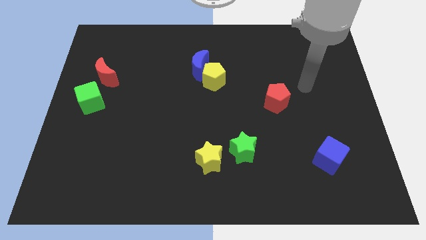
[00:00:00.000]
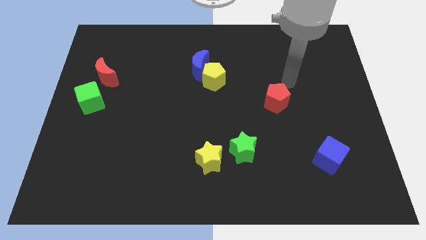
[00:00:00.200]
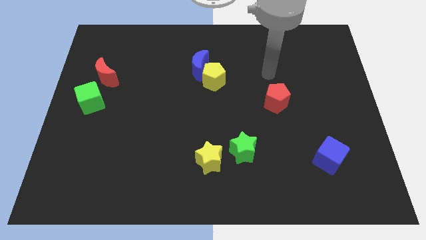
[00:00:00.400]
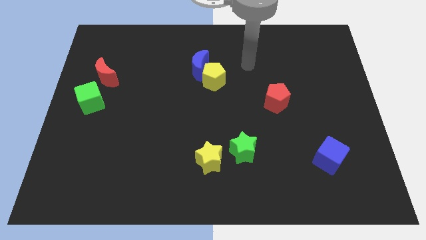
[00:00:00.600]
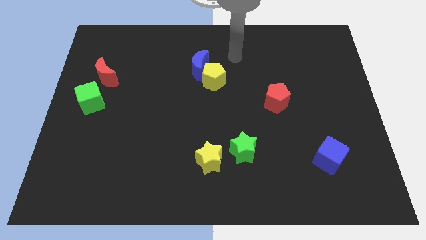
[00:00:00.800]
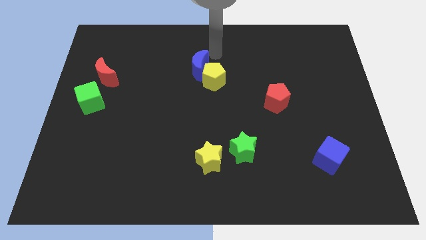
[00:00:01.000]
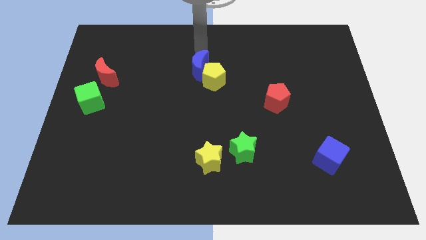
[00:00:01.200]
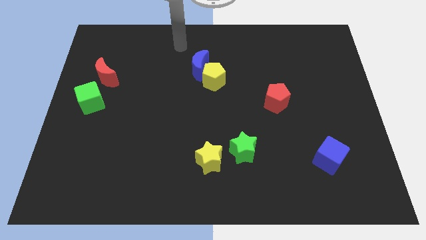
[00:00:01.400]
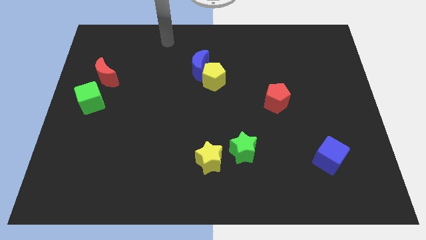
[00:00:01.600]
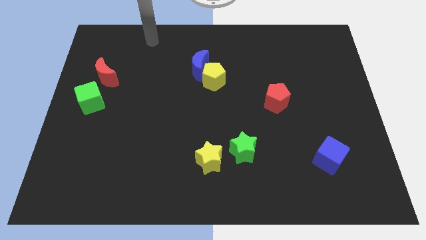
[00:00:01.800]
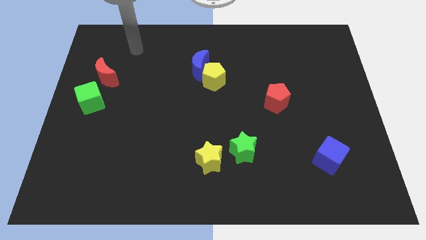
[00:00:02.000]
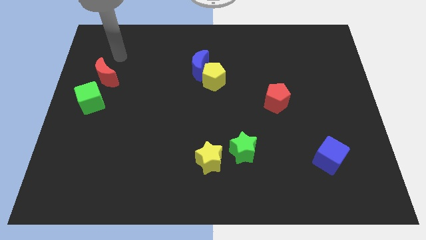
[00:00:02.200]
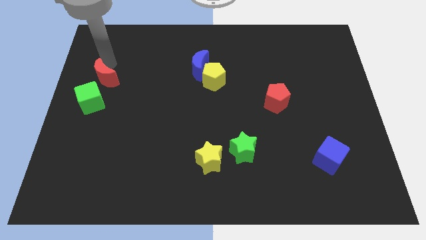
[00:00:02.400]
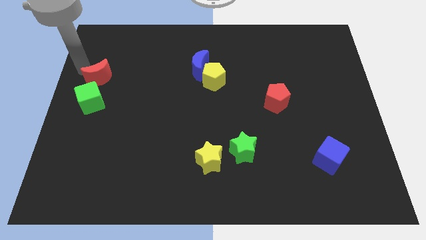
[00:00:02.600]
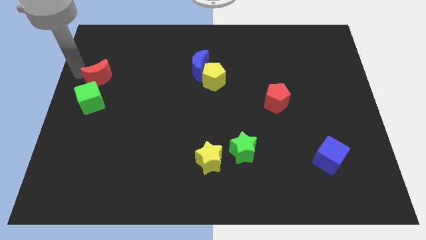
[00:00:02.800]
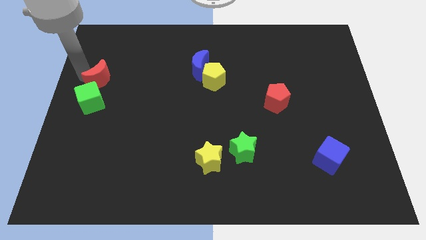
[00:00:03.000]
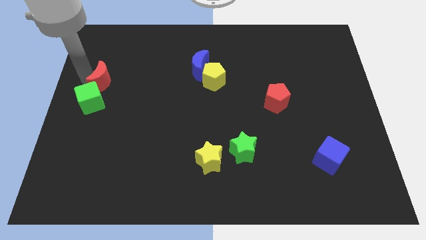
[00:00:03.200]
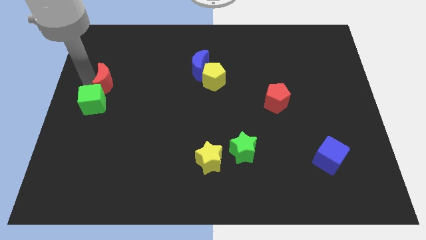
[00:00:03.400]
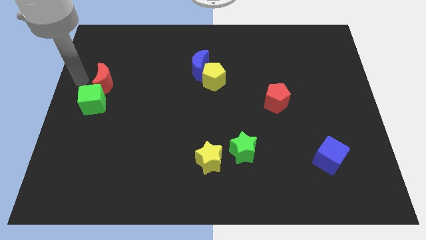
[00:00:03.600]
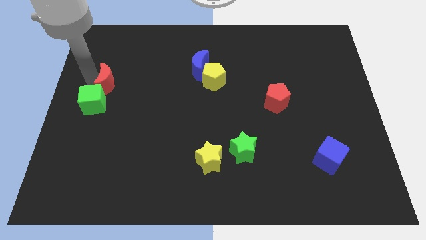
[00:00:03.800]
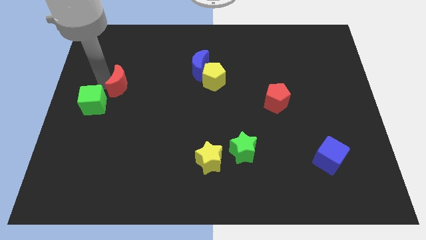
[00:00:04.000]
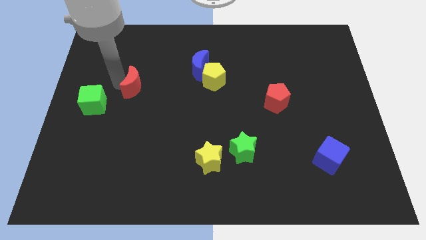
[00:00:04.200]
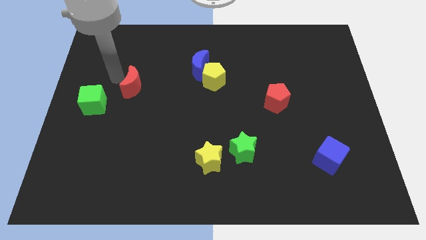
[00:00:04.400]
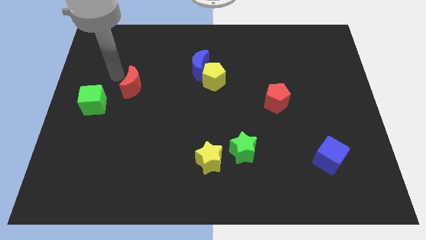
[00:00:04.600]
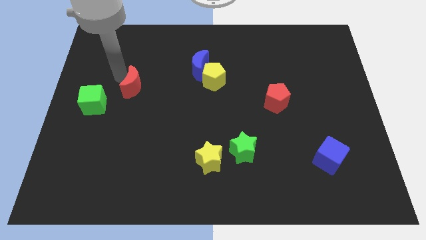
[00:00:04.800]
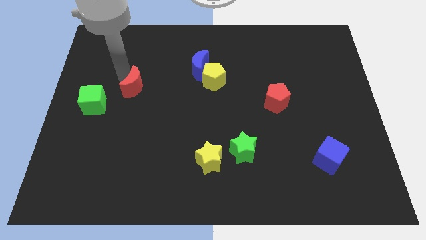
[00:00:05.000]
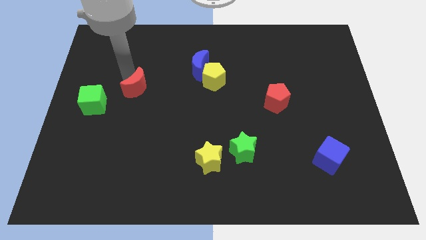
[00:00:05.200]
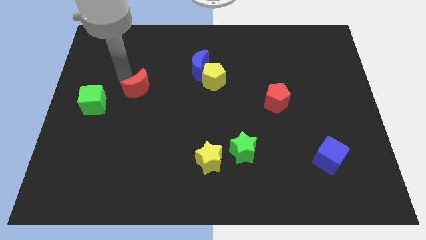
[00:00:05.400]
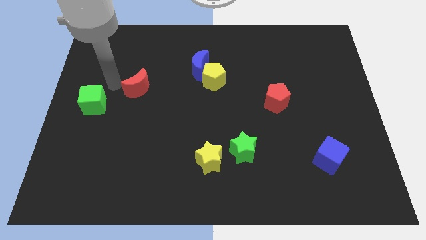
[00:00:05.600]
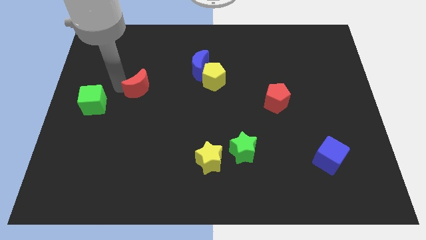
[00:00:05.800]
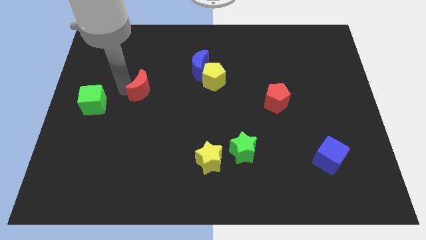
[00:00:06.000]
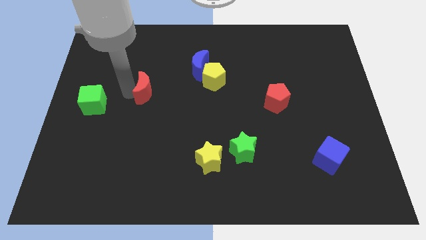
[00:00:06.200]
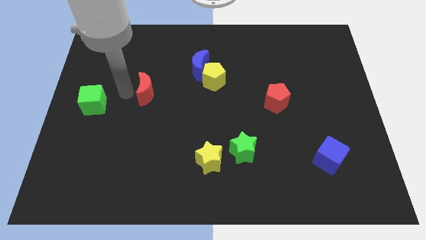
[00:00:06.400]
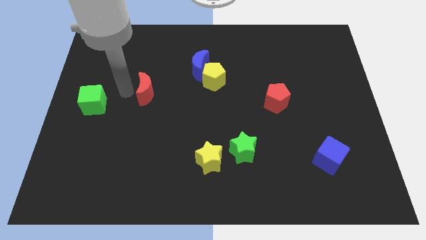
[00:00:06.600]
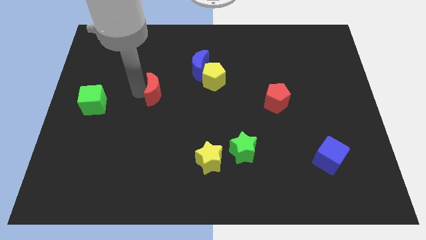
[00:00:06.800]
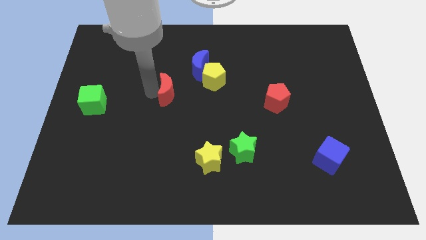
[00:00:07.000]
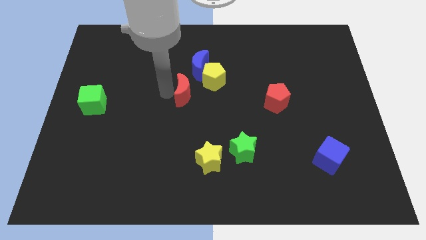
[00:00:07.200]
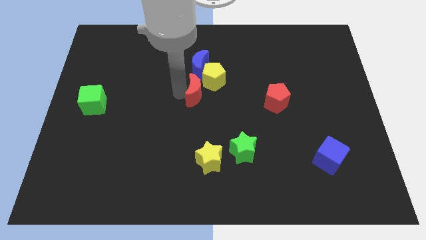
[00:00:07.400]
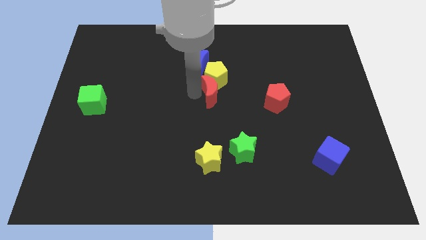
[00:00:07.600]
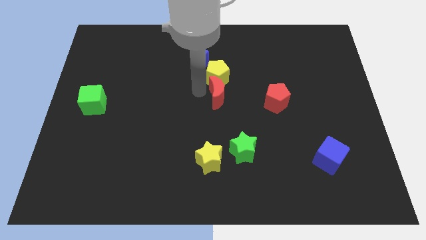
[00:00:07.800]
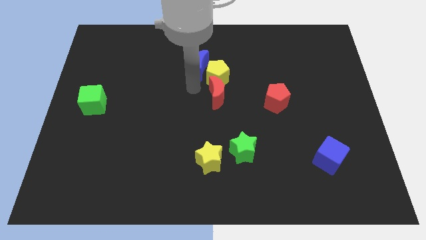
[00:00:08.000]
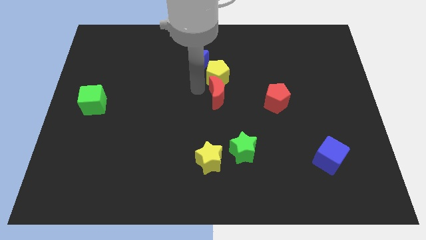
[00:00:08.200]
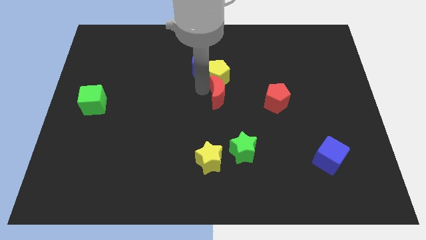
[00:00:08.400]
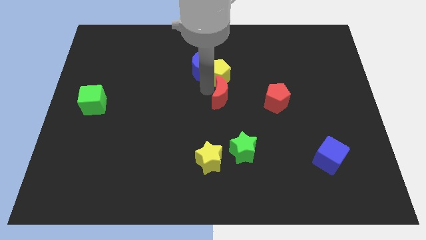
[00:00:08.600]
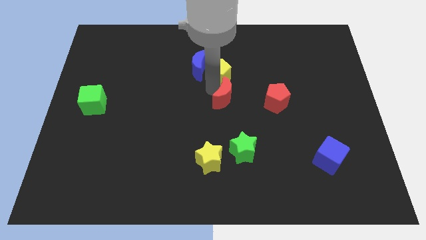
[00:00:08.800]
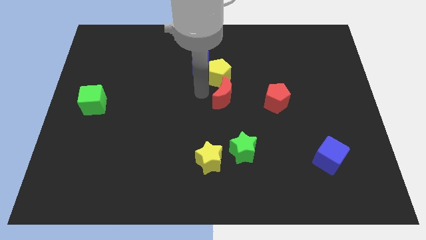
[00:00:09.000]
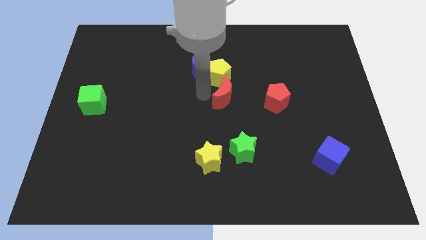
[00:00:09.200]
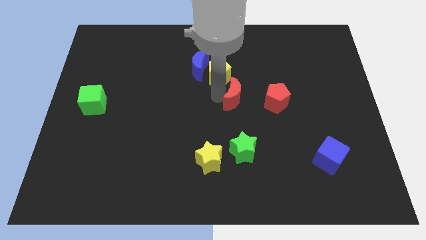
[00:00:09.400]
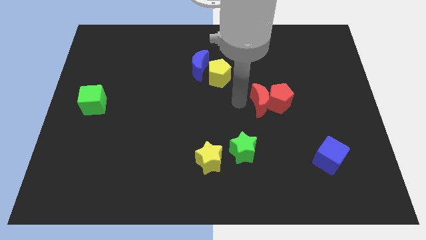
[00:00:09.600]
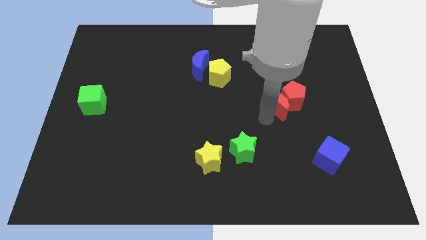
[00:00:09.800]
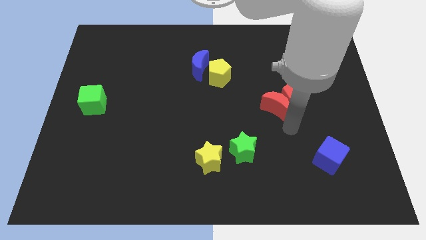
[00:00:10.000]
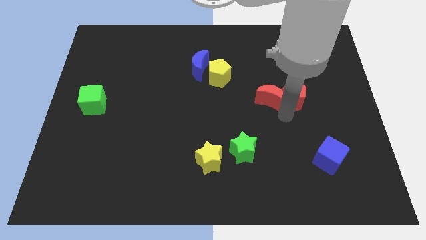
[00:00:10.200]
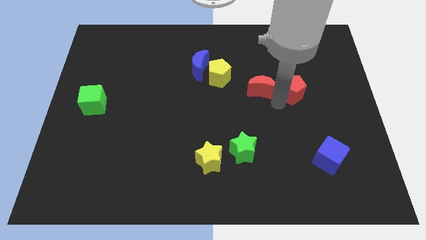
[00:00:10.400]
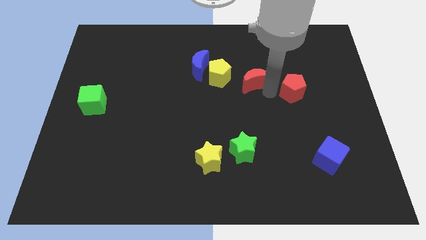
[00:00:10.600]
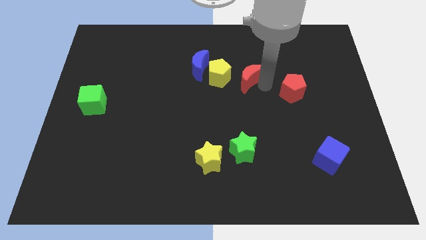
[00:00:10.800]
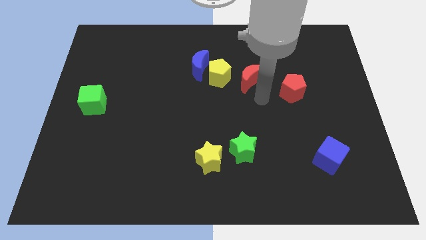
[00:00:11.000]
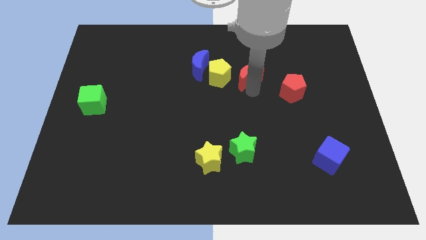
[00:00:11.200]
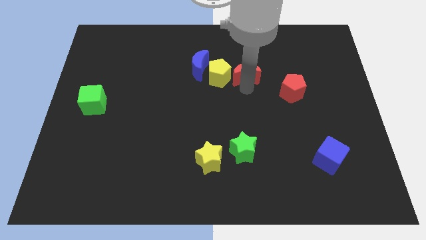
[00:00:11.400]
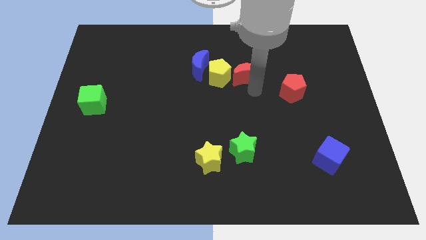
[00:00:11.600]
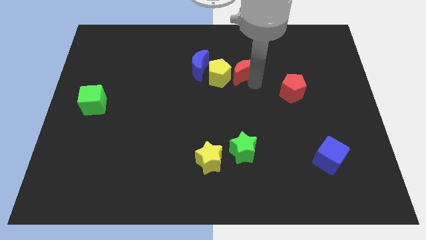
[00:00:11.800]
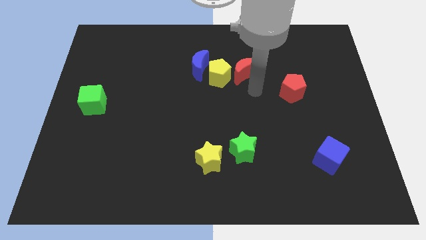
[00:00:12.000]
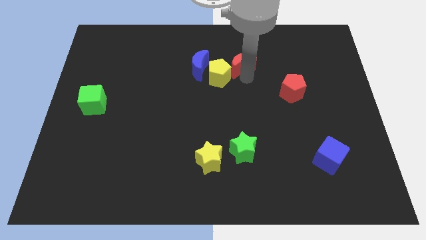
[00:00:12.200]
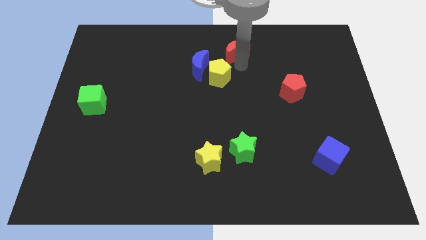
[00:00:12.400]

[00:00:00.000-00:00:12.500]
move the red moon to the top
